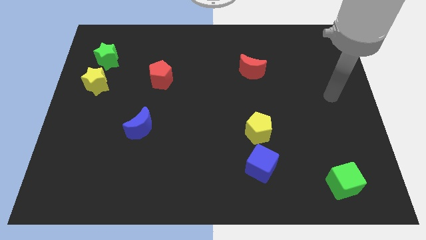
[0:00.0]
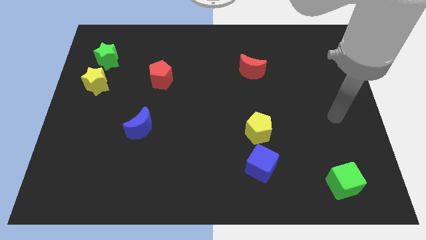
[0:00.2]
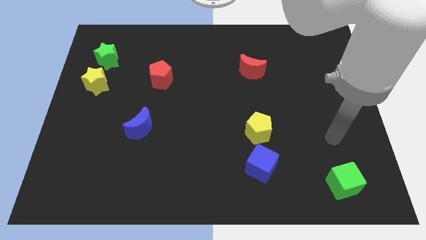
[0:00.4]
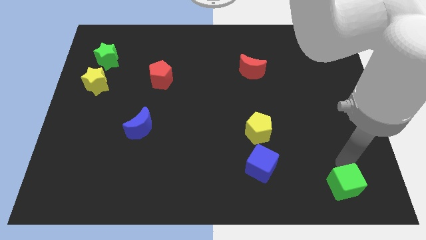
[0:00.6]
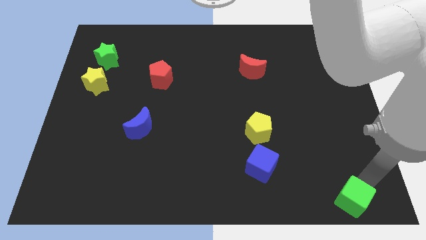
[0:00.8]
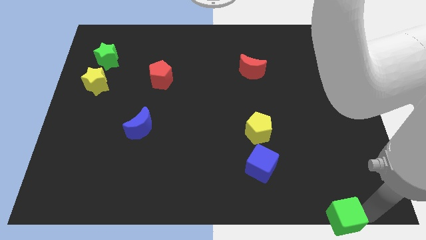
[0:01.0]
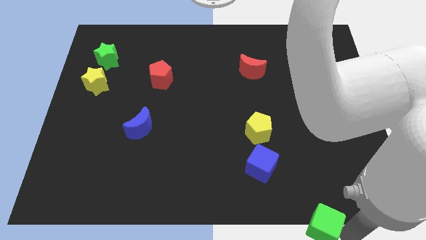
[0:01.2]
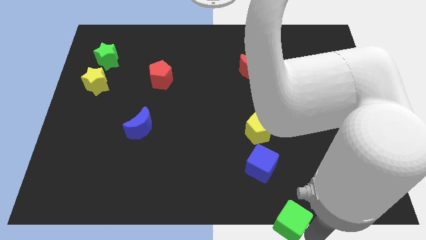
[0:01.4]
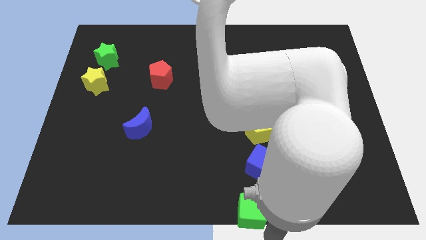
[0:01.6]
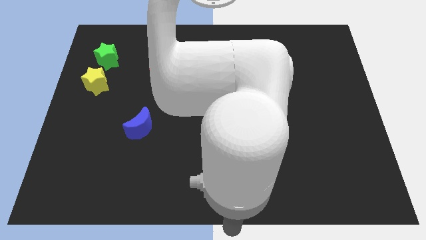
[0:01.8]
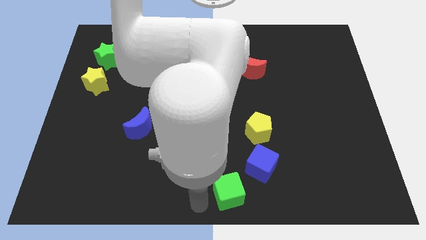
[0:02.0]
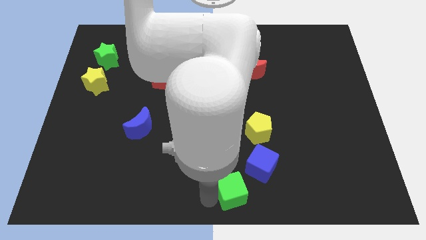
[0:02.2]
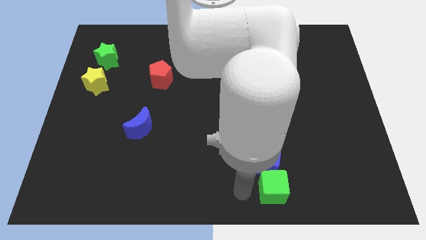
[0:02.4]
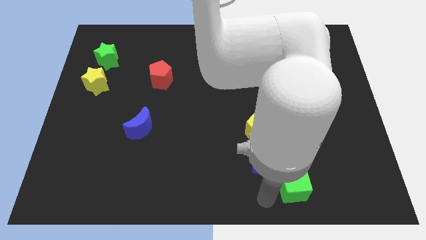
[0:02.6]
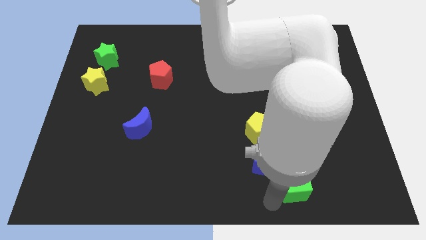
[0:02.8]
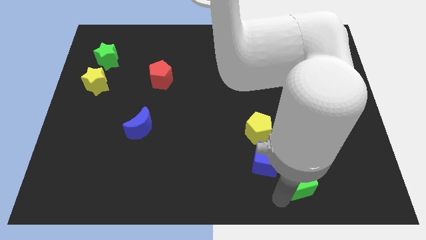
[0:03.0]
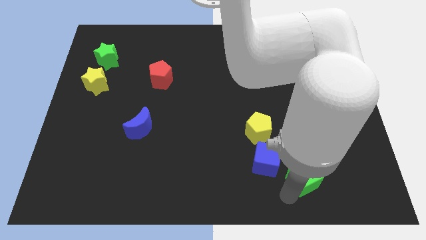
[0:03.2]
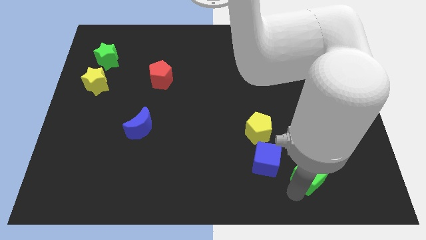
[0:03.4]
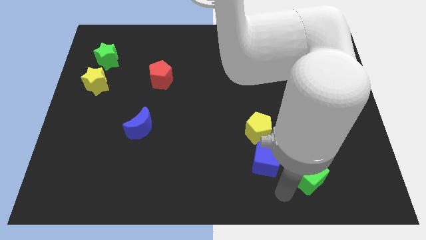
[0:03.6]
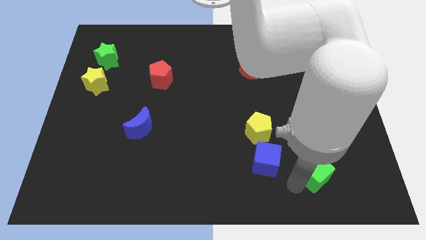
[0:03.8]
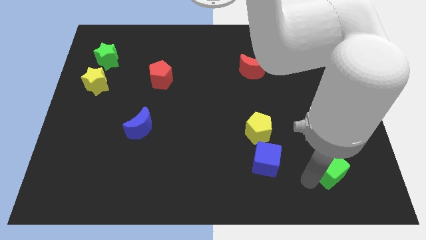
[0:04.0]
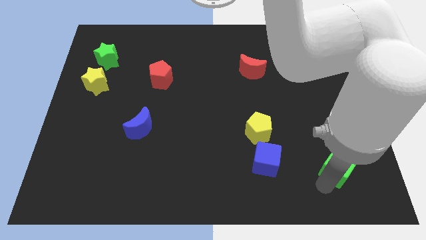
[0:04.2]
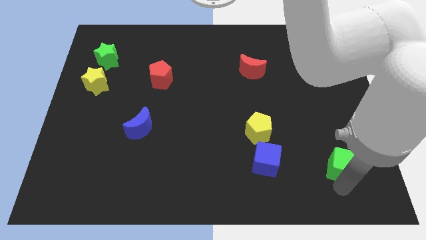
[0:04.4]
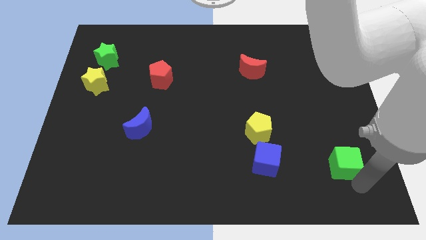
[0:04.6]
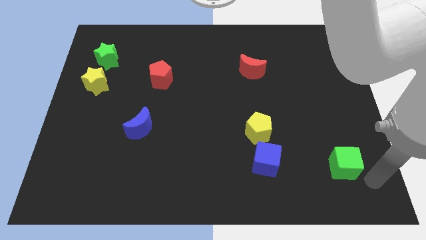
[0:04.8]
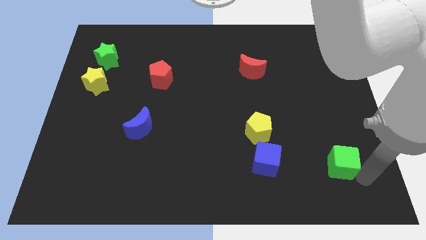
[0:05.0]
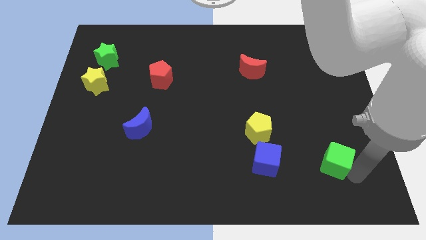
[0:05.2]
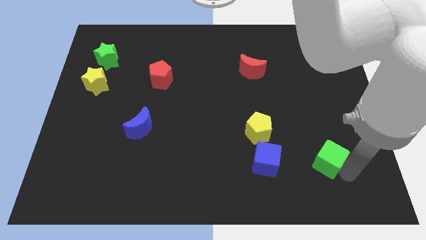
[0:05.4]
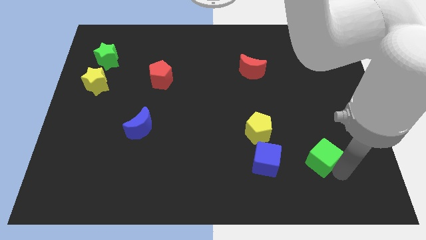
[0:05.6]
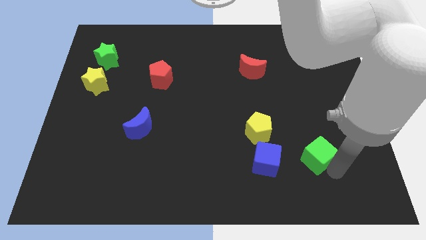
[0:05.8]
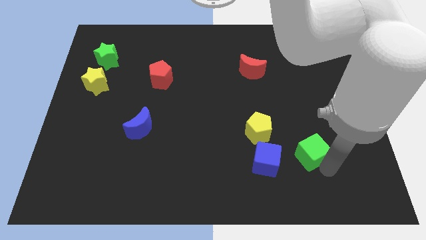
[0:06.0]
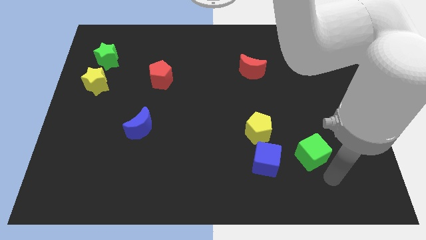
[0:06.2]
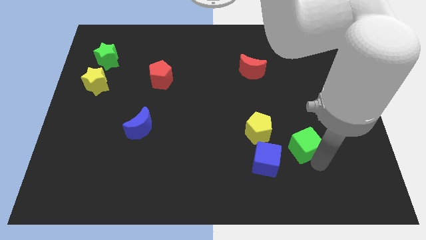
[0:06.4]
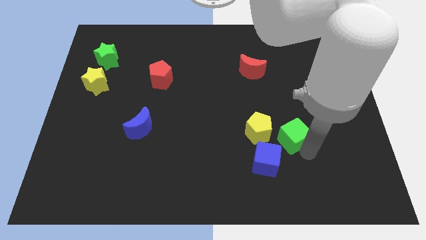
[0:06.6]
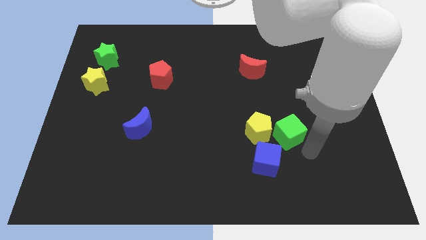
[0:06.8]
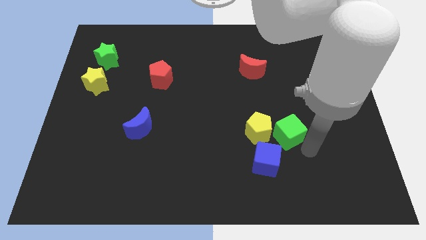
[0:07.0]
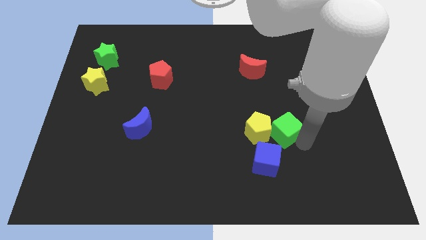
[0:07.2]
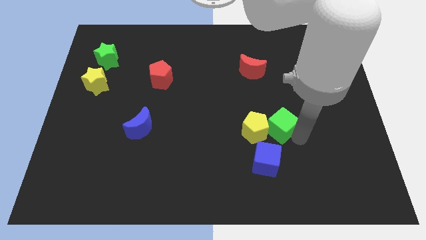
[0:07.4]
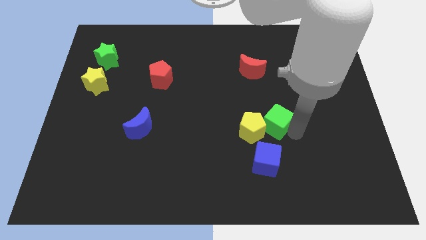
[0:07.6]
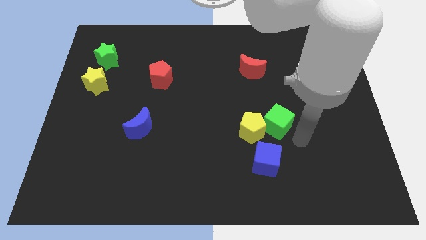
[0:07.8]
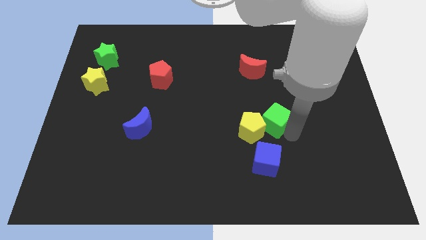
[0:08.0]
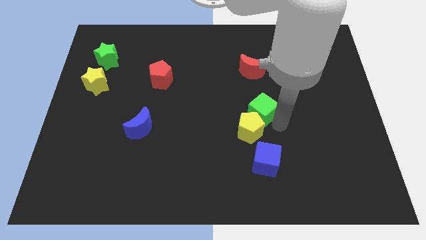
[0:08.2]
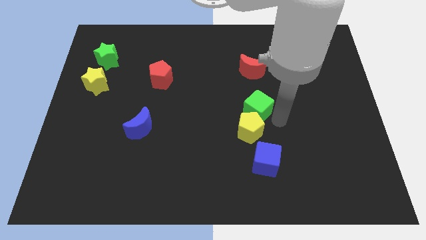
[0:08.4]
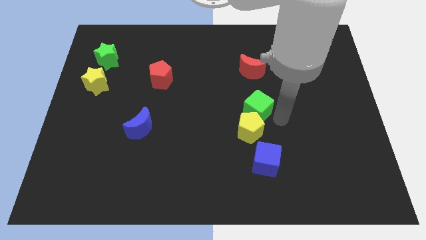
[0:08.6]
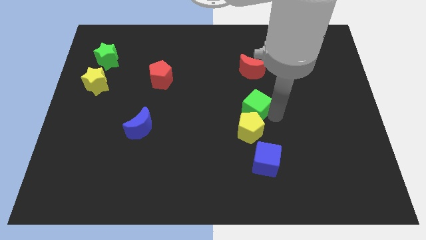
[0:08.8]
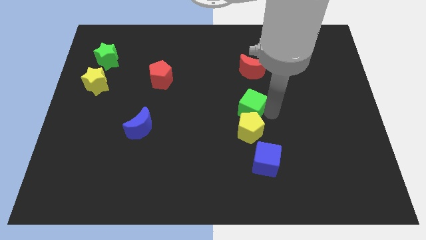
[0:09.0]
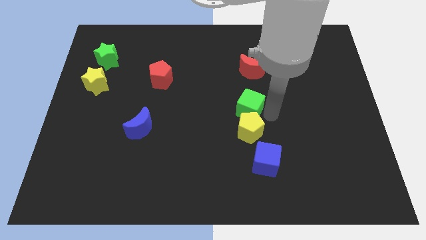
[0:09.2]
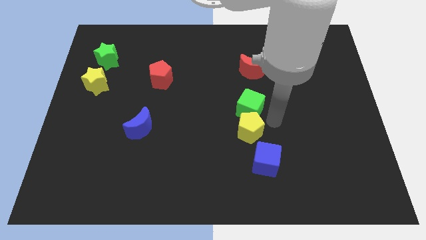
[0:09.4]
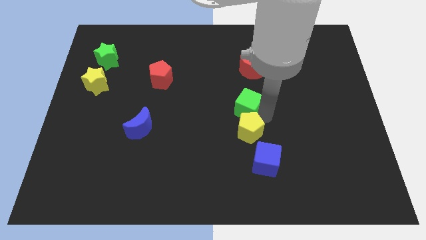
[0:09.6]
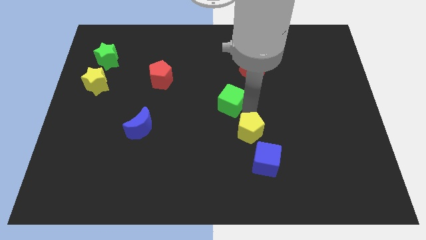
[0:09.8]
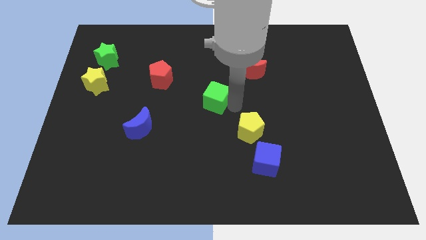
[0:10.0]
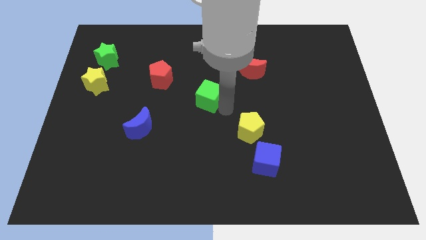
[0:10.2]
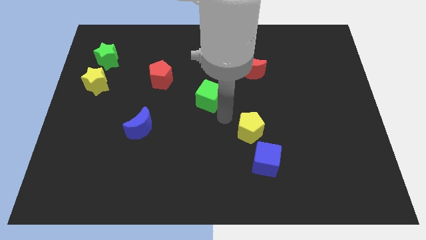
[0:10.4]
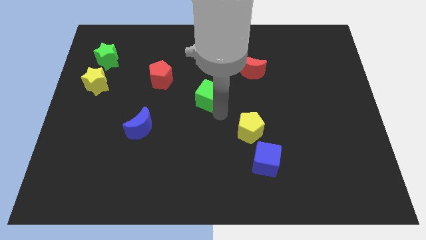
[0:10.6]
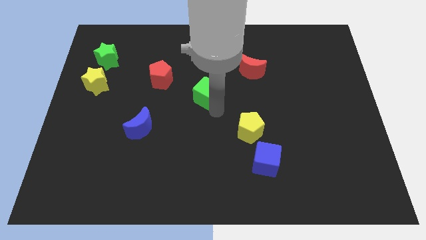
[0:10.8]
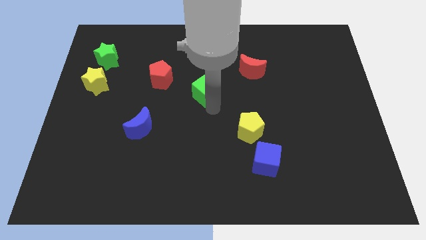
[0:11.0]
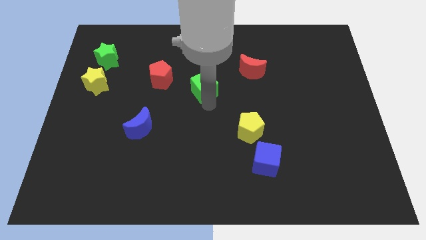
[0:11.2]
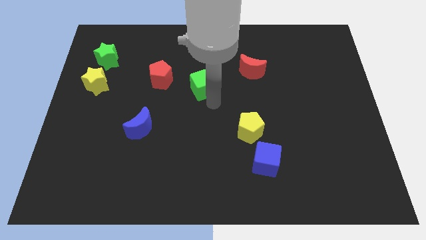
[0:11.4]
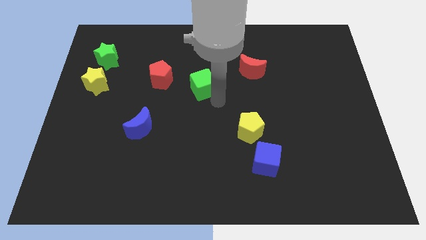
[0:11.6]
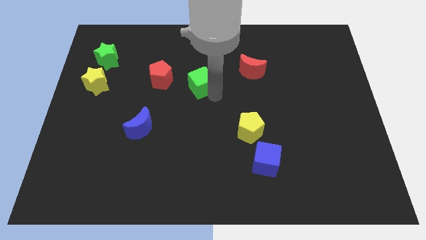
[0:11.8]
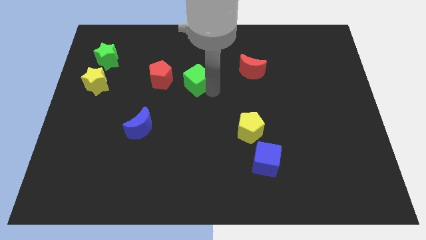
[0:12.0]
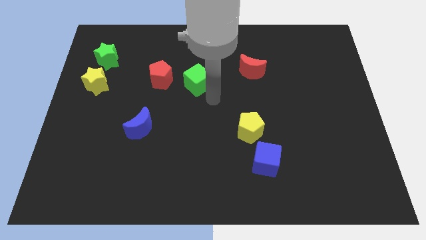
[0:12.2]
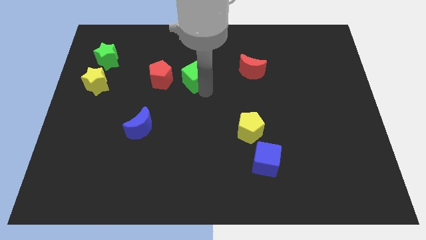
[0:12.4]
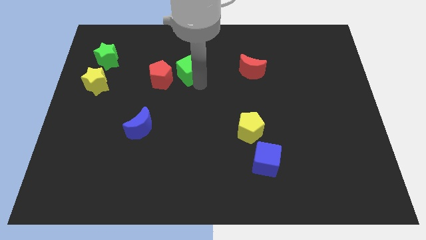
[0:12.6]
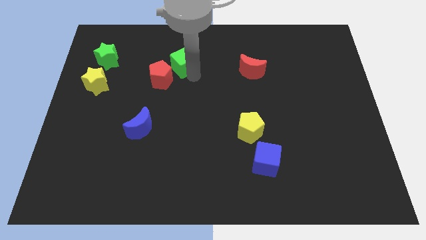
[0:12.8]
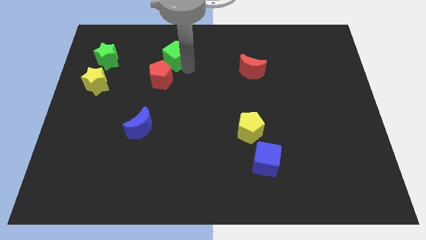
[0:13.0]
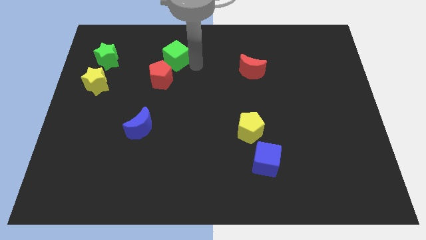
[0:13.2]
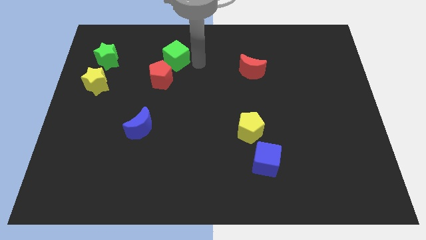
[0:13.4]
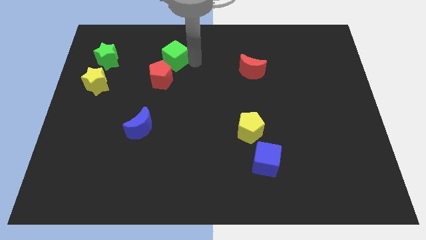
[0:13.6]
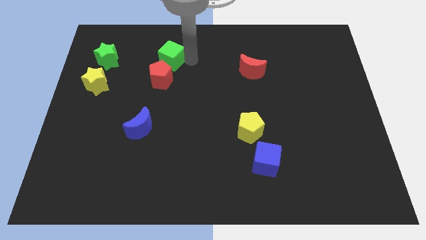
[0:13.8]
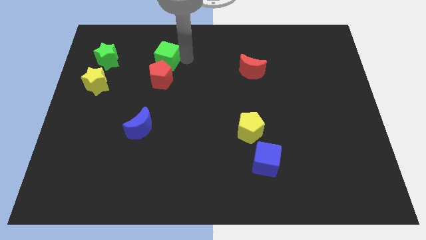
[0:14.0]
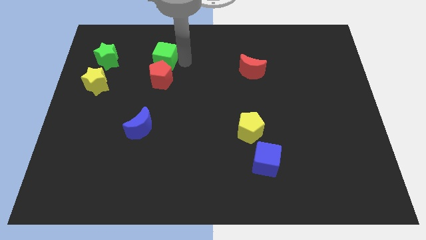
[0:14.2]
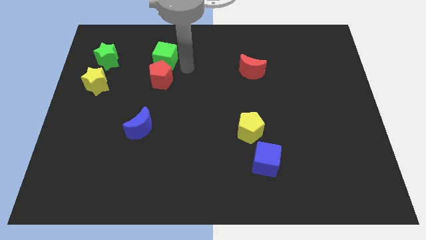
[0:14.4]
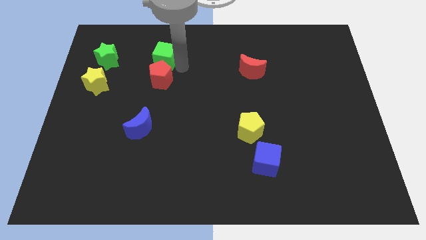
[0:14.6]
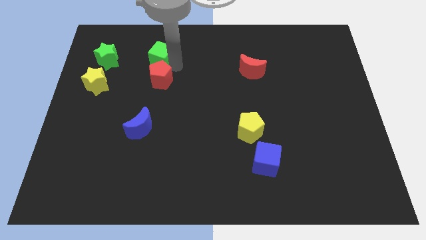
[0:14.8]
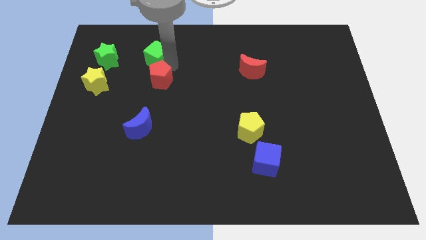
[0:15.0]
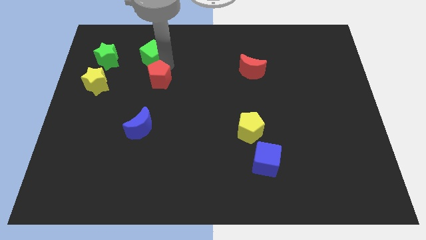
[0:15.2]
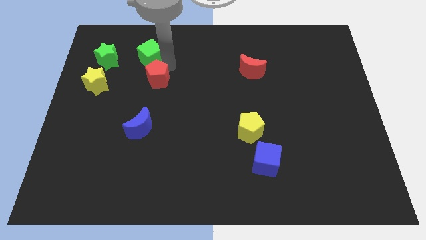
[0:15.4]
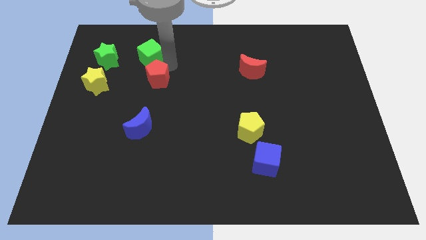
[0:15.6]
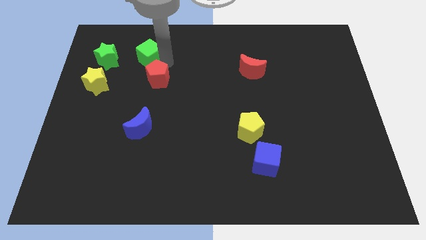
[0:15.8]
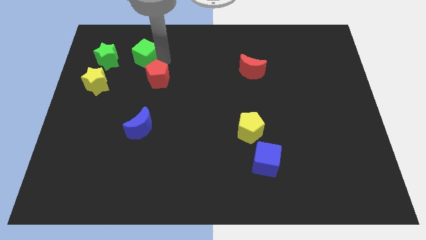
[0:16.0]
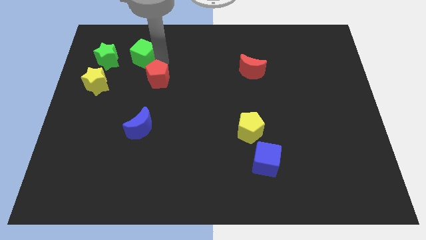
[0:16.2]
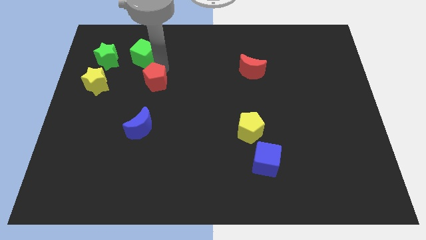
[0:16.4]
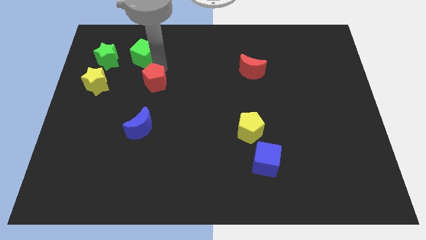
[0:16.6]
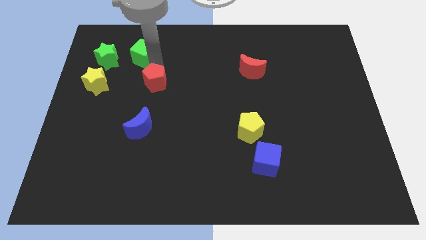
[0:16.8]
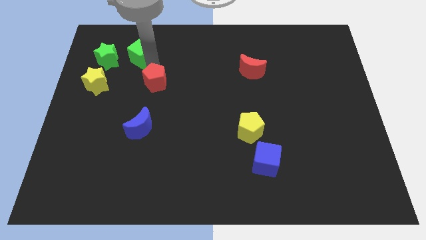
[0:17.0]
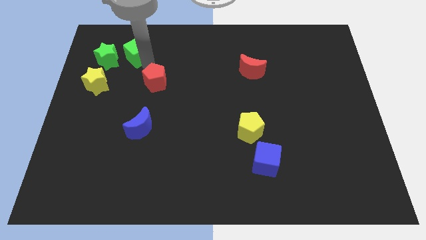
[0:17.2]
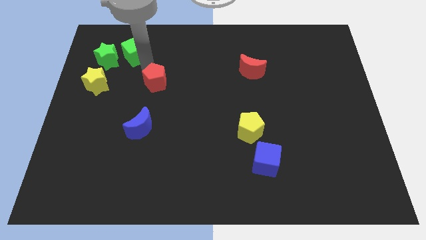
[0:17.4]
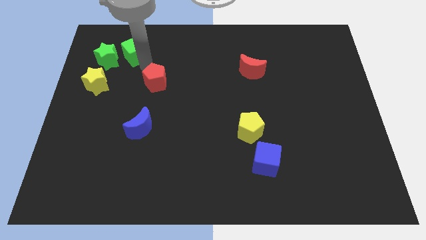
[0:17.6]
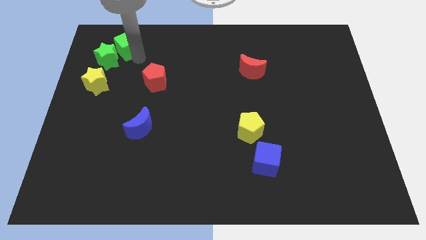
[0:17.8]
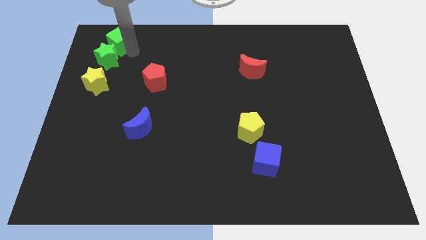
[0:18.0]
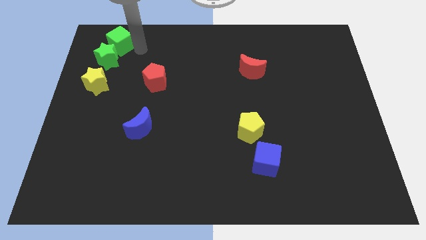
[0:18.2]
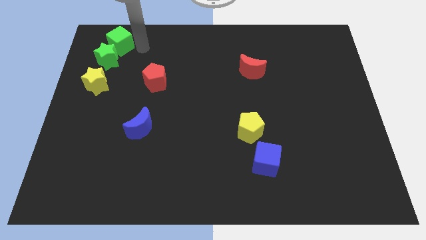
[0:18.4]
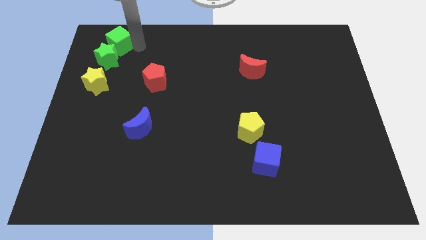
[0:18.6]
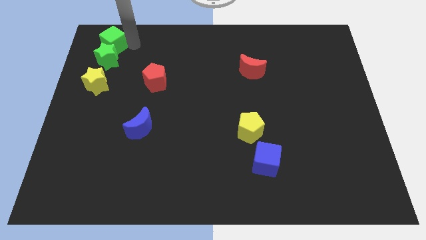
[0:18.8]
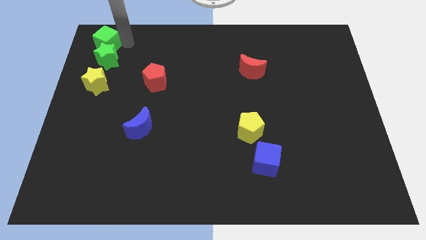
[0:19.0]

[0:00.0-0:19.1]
slide the green cube to the upper left corner
